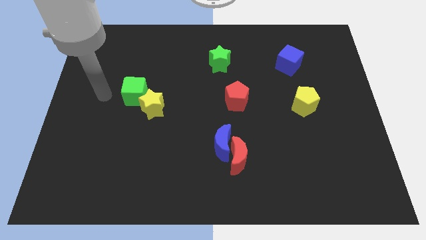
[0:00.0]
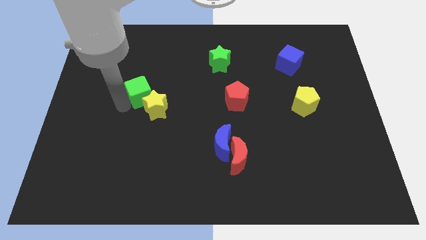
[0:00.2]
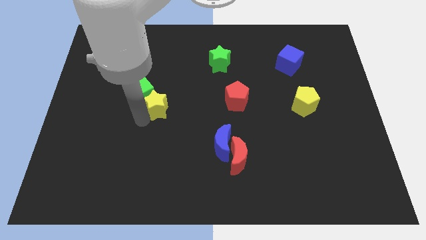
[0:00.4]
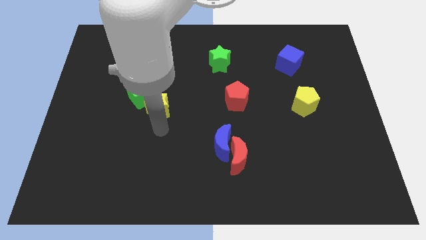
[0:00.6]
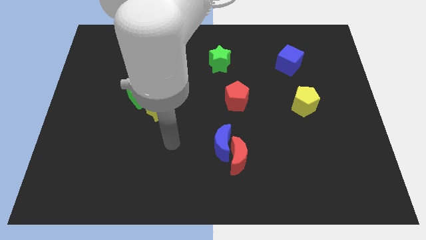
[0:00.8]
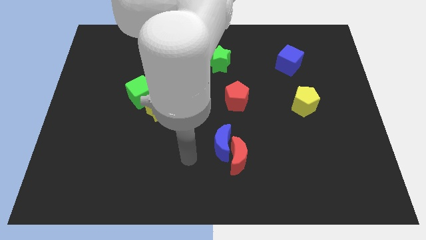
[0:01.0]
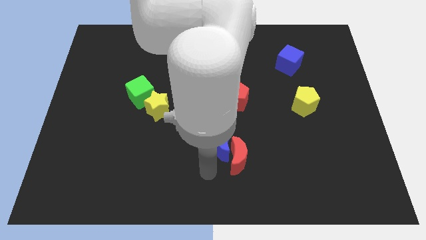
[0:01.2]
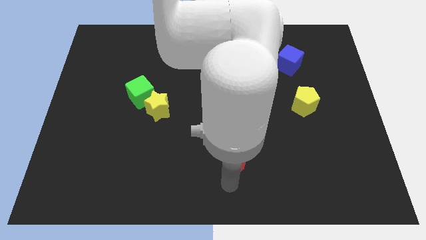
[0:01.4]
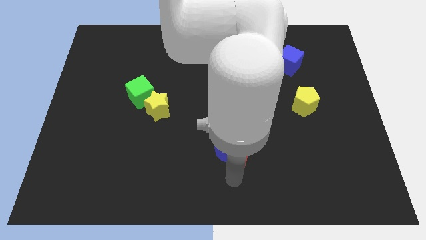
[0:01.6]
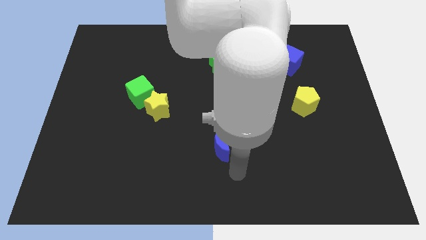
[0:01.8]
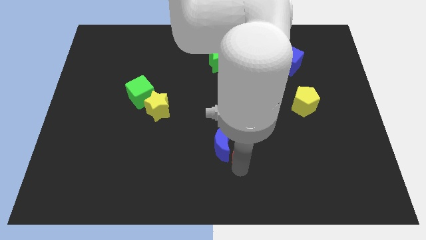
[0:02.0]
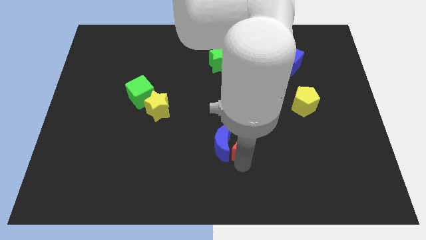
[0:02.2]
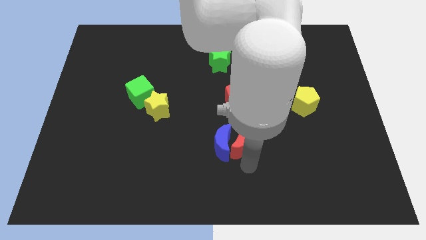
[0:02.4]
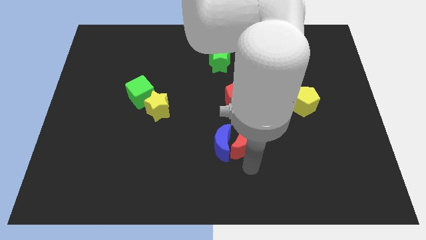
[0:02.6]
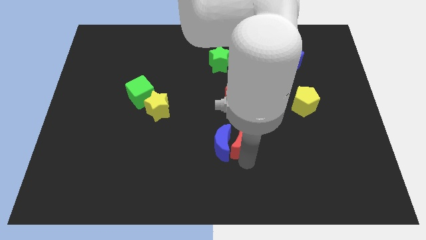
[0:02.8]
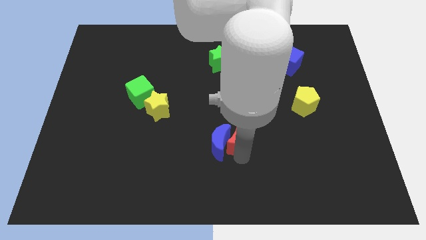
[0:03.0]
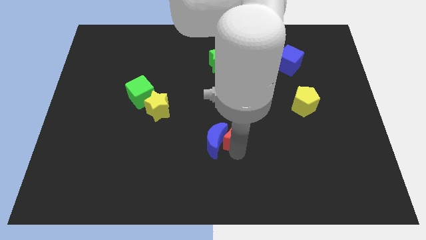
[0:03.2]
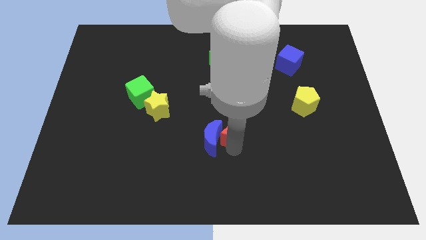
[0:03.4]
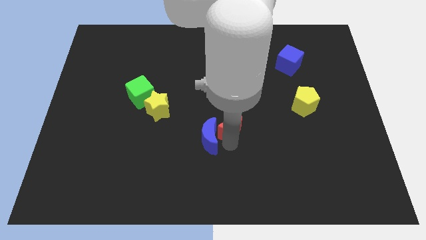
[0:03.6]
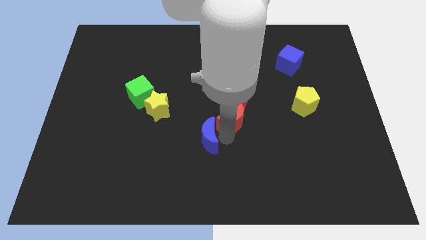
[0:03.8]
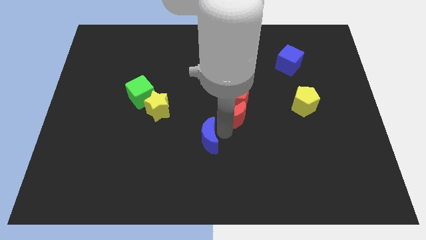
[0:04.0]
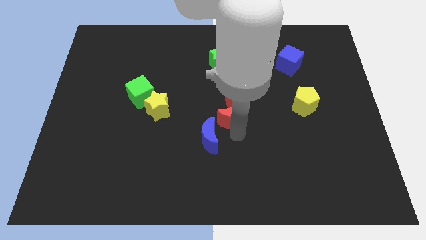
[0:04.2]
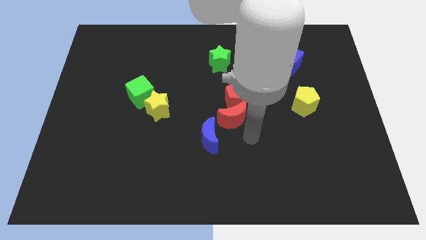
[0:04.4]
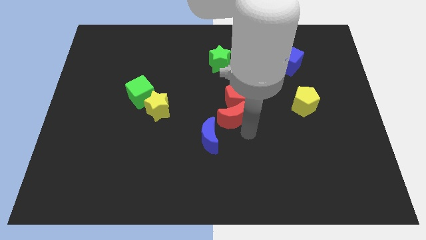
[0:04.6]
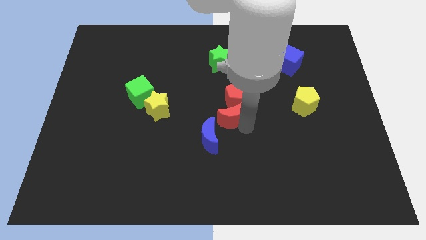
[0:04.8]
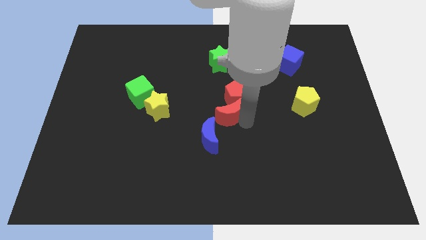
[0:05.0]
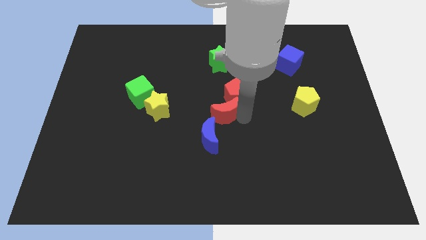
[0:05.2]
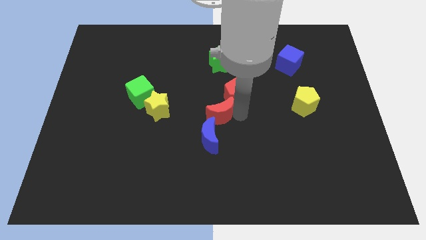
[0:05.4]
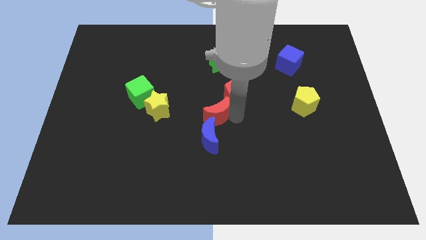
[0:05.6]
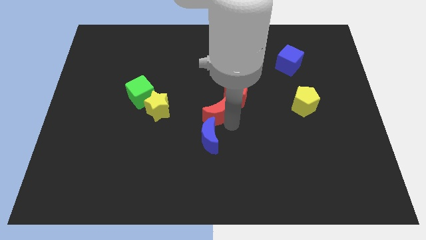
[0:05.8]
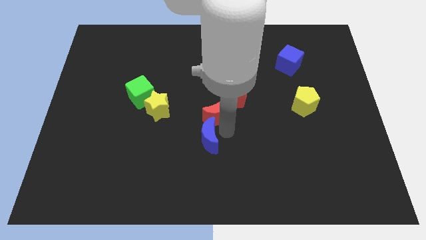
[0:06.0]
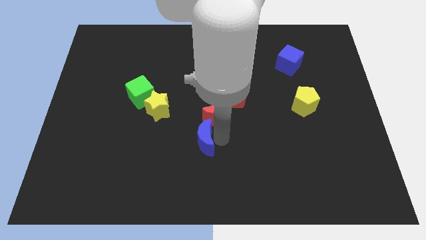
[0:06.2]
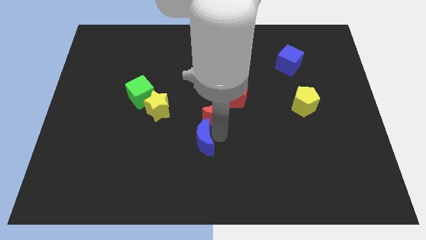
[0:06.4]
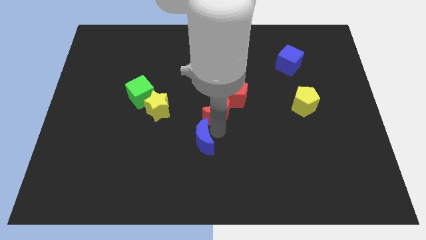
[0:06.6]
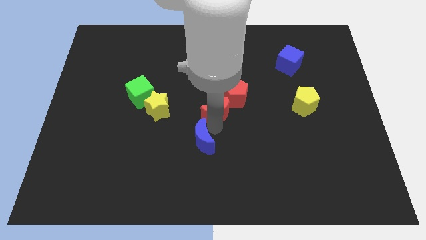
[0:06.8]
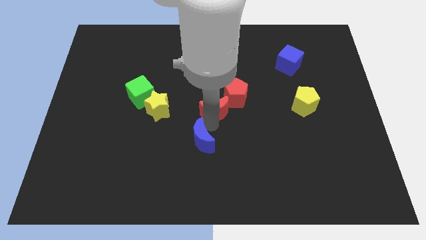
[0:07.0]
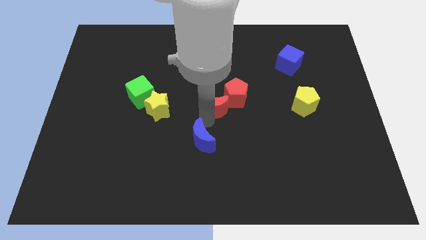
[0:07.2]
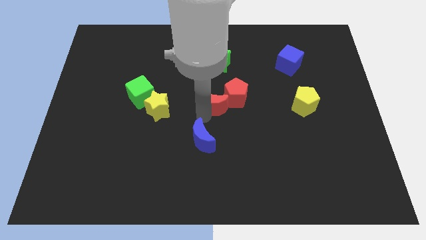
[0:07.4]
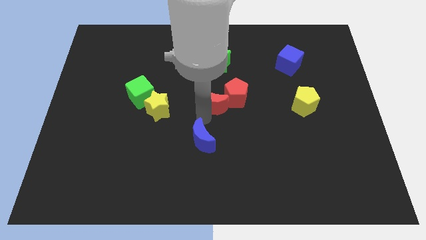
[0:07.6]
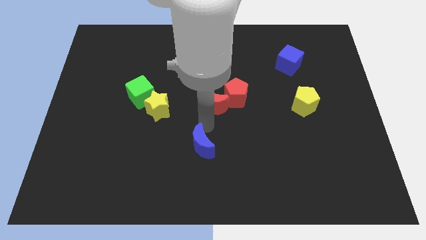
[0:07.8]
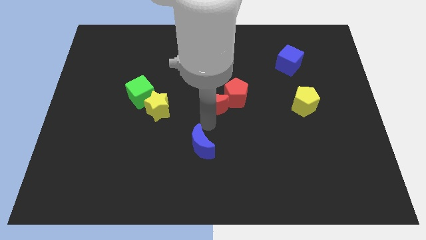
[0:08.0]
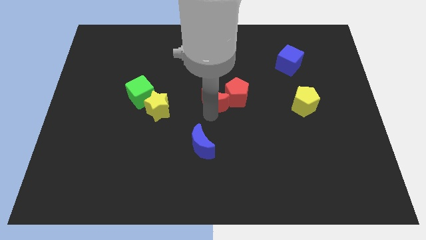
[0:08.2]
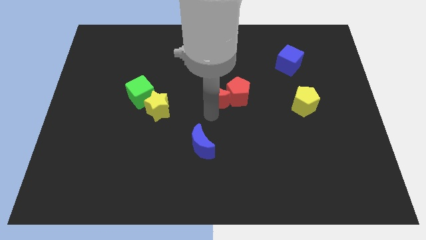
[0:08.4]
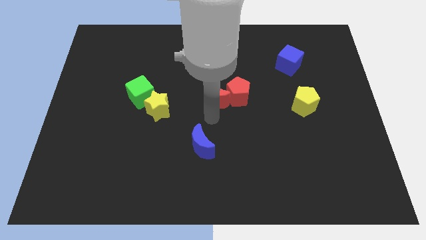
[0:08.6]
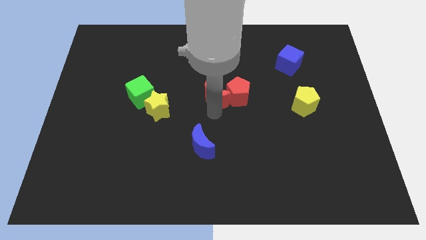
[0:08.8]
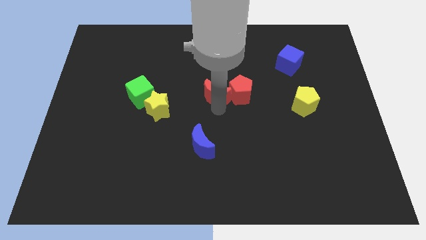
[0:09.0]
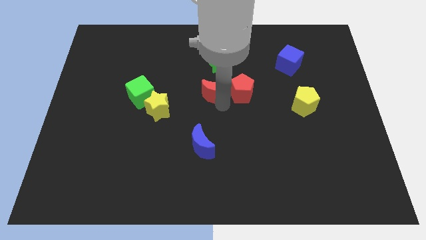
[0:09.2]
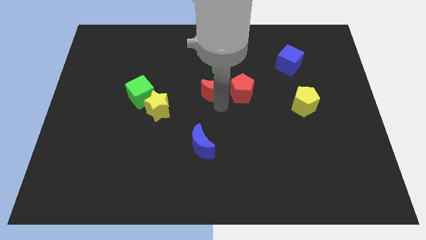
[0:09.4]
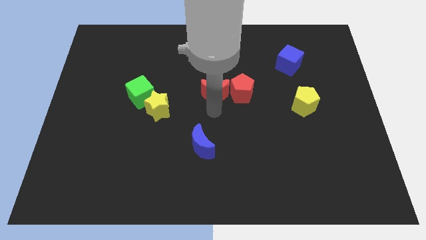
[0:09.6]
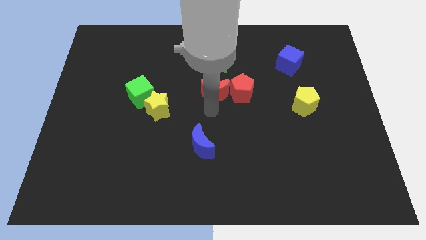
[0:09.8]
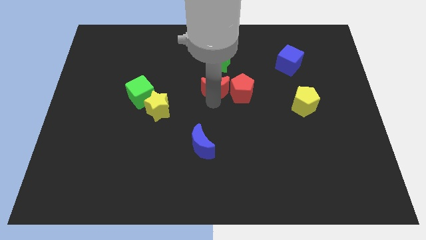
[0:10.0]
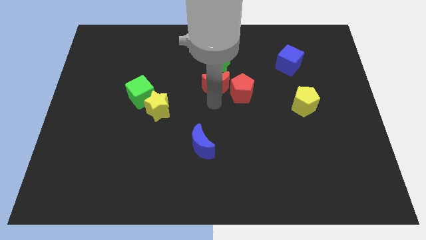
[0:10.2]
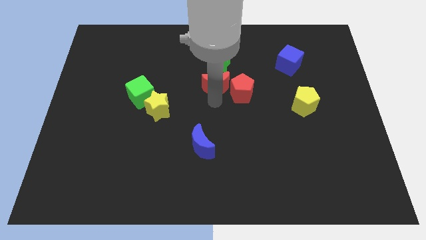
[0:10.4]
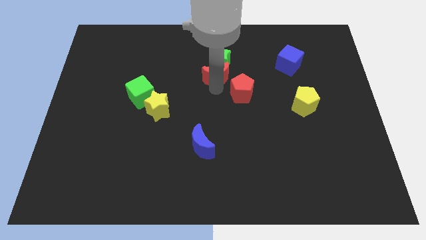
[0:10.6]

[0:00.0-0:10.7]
push the red moon towards the green star

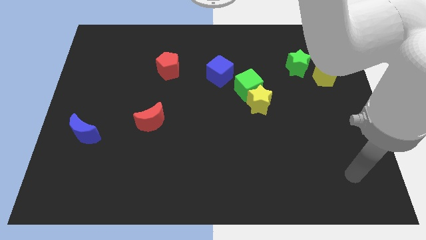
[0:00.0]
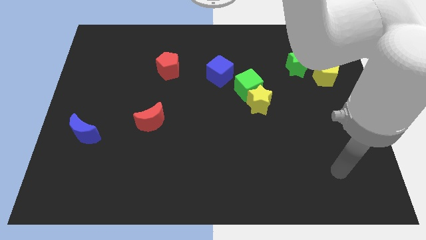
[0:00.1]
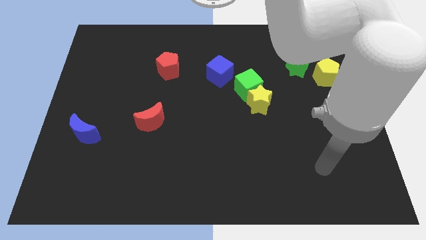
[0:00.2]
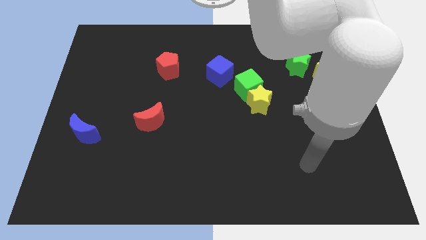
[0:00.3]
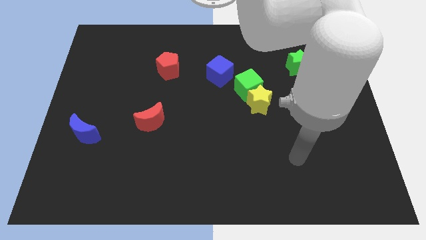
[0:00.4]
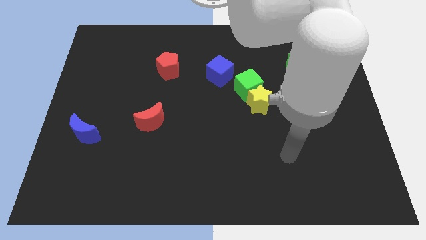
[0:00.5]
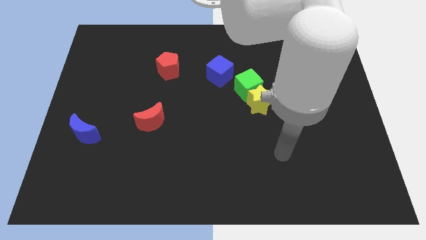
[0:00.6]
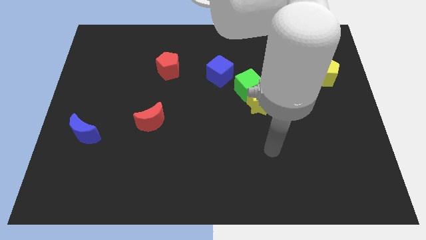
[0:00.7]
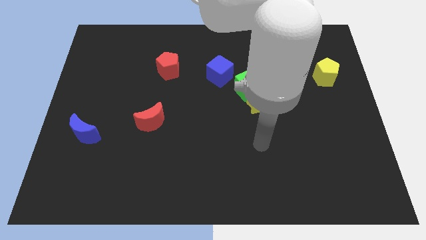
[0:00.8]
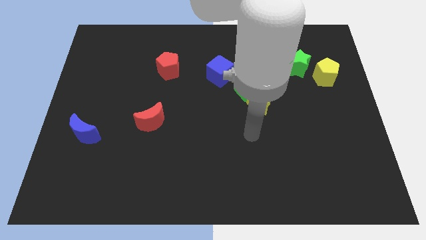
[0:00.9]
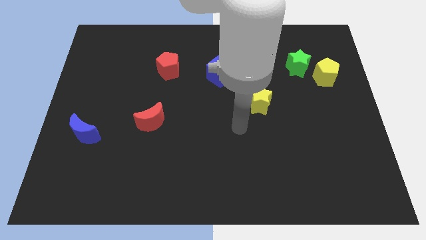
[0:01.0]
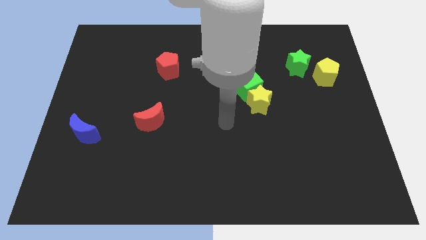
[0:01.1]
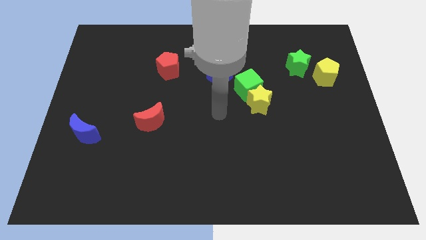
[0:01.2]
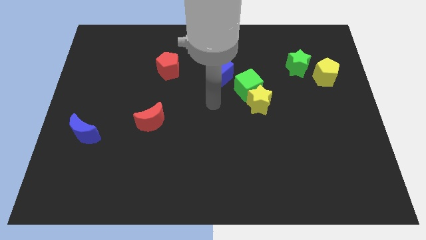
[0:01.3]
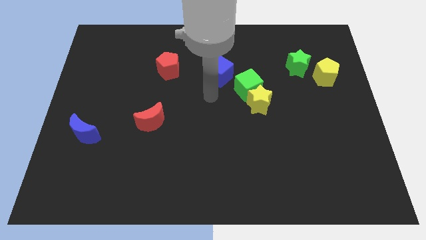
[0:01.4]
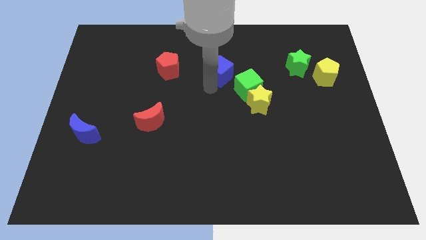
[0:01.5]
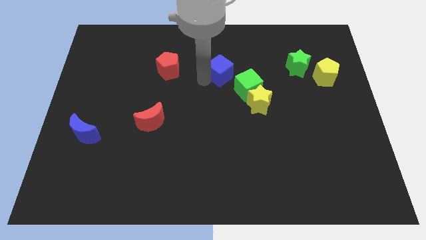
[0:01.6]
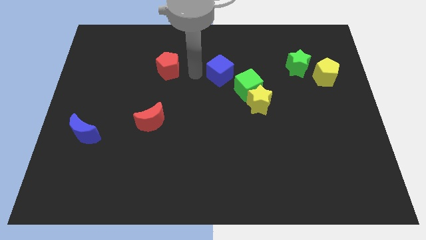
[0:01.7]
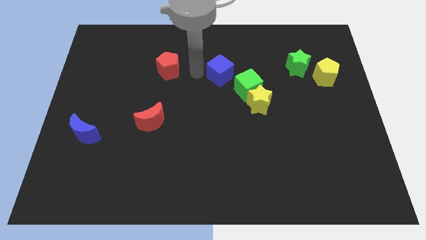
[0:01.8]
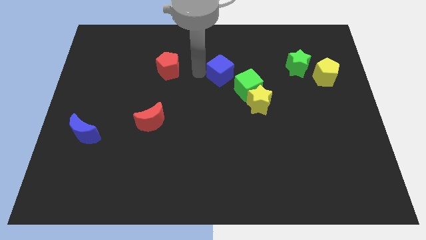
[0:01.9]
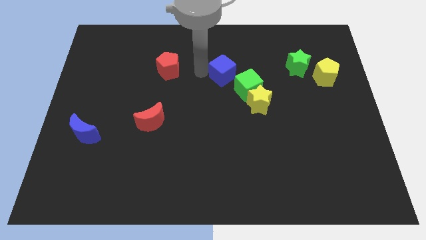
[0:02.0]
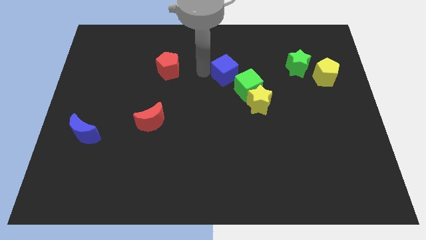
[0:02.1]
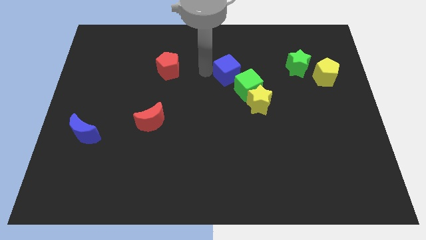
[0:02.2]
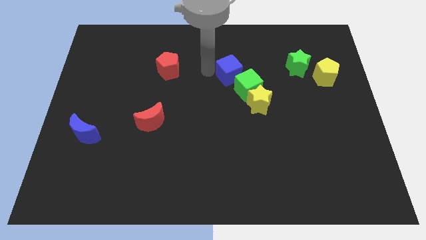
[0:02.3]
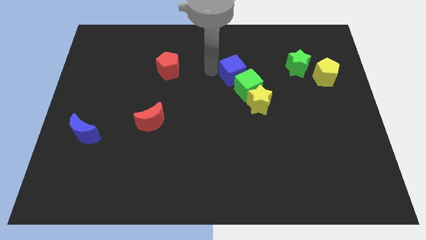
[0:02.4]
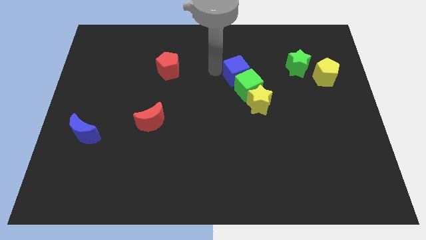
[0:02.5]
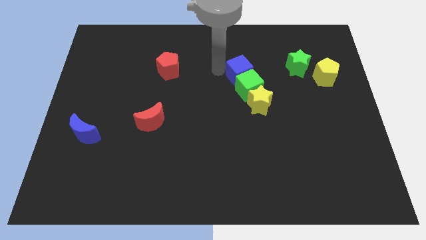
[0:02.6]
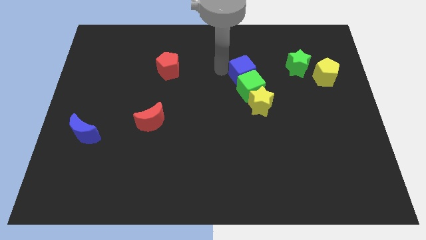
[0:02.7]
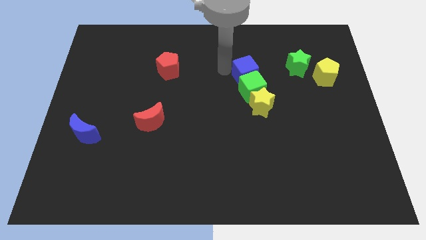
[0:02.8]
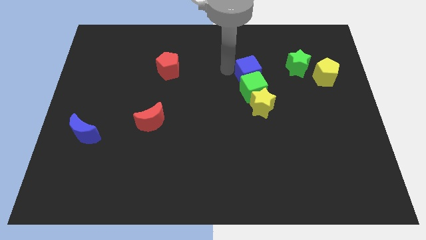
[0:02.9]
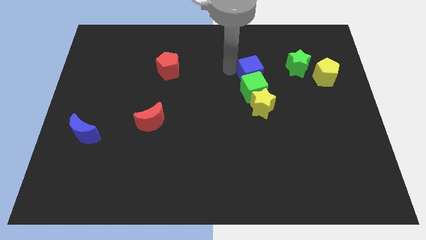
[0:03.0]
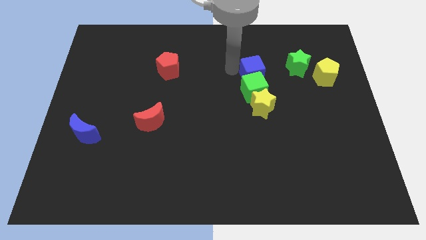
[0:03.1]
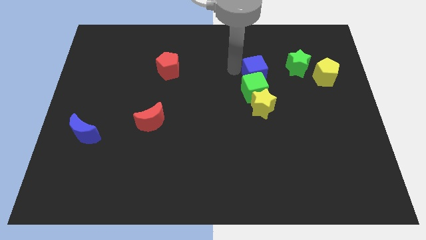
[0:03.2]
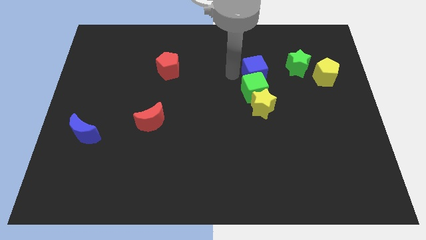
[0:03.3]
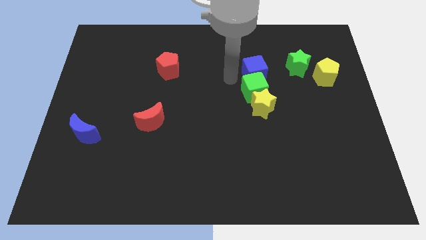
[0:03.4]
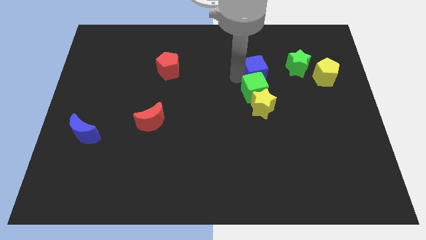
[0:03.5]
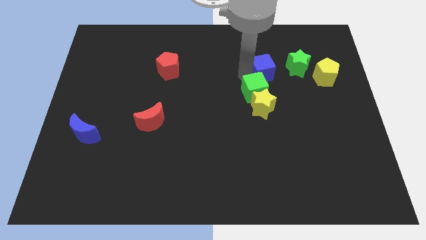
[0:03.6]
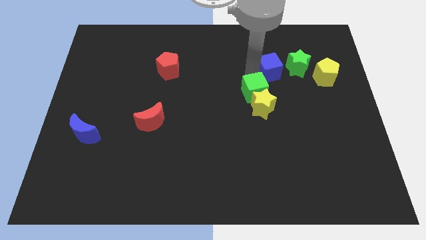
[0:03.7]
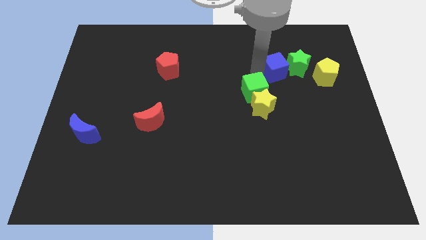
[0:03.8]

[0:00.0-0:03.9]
put the blue cube next to the green star
